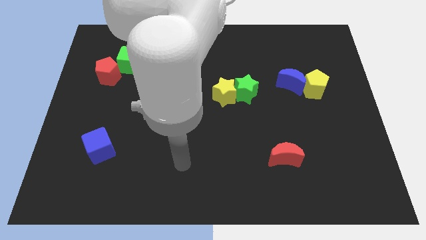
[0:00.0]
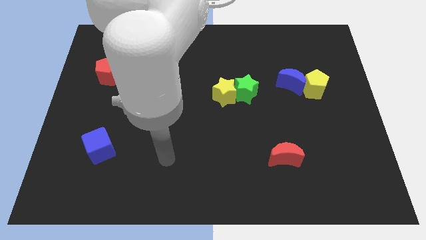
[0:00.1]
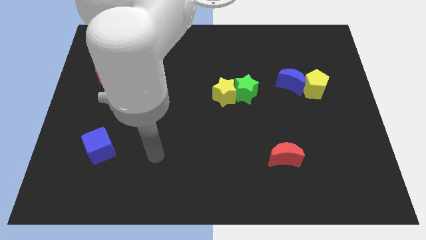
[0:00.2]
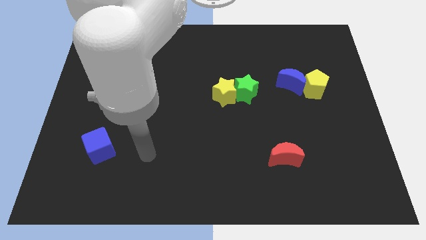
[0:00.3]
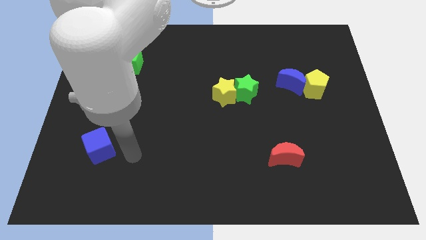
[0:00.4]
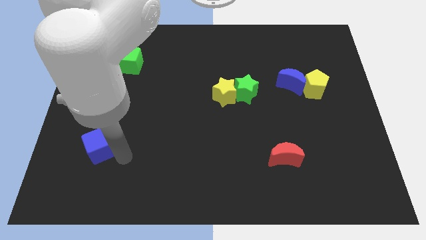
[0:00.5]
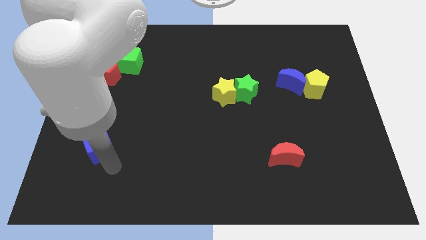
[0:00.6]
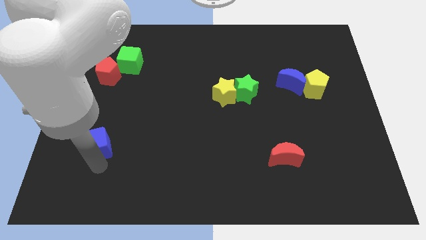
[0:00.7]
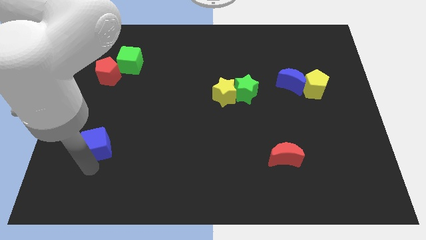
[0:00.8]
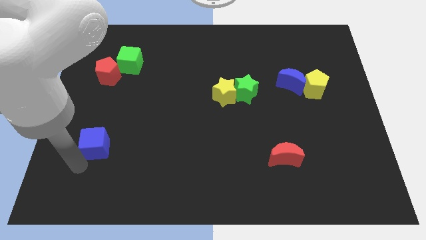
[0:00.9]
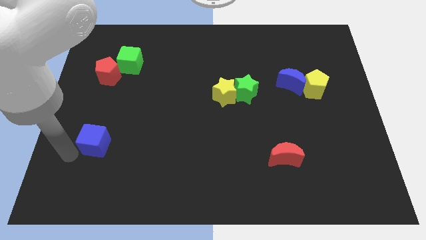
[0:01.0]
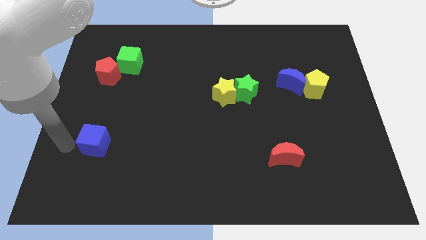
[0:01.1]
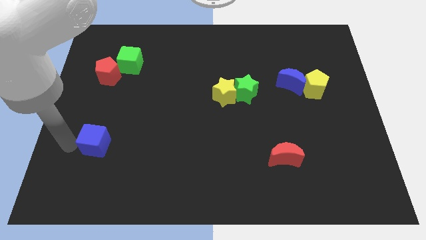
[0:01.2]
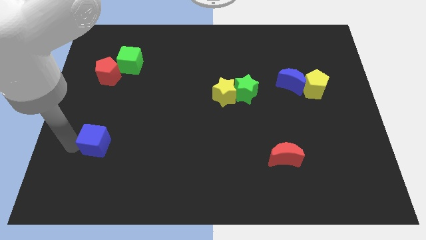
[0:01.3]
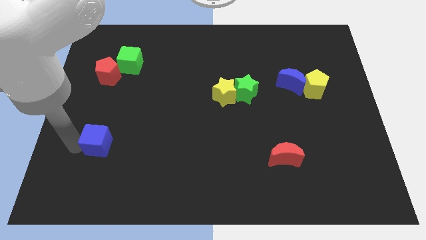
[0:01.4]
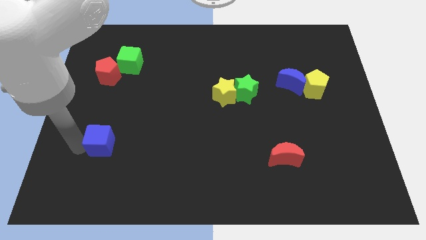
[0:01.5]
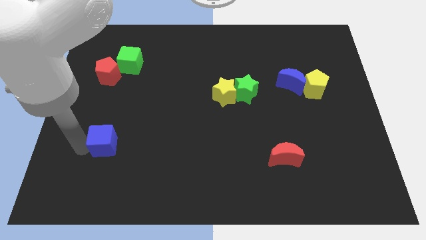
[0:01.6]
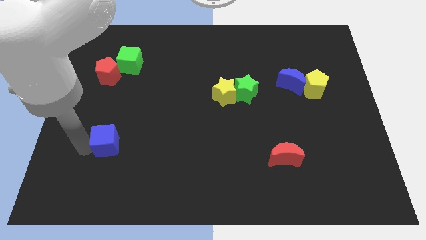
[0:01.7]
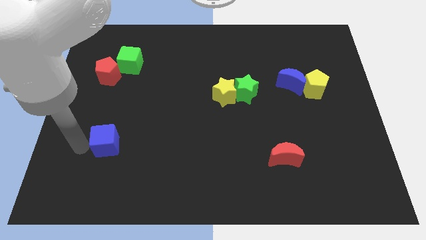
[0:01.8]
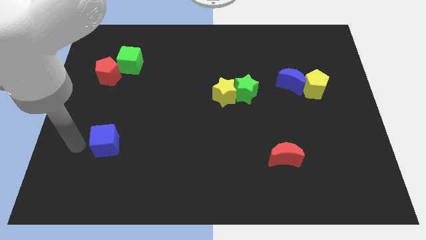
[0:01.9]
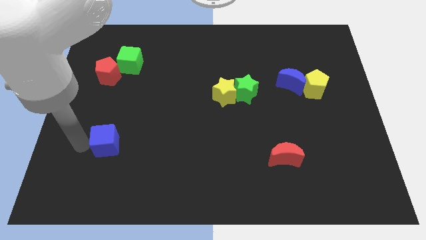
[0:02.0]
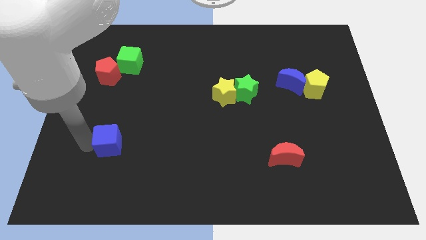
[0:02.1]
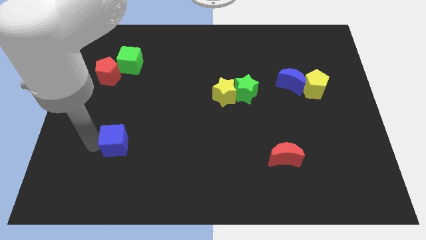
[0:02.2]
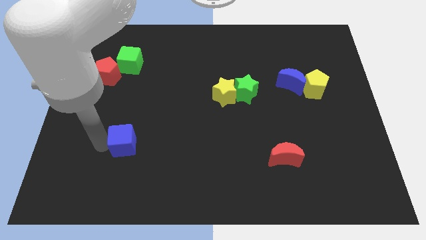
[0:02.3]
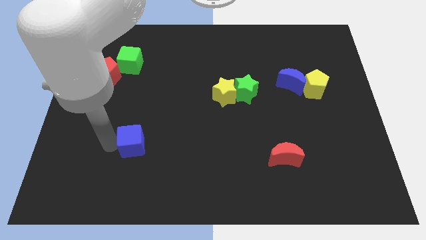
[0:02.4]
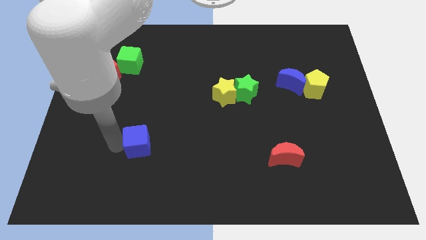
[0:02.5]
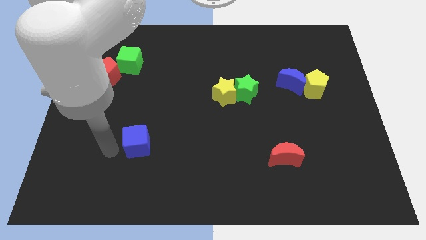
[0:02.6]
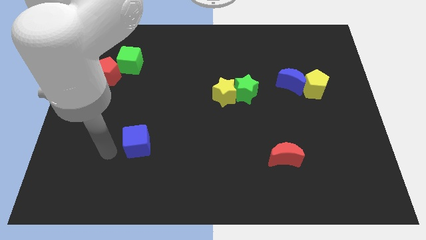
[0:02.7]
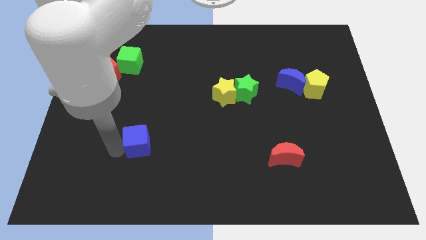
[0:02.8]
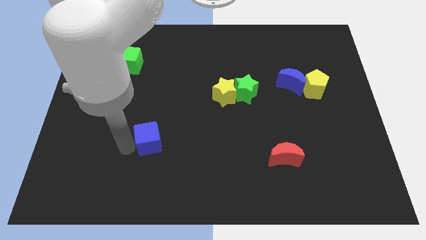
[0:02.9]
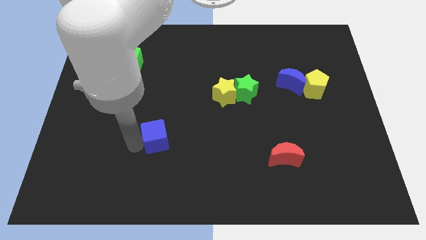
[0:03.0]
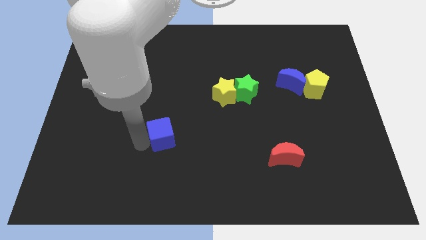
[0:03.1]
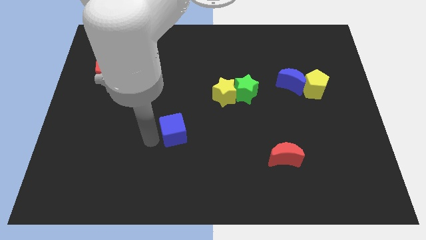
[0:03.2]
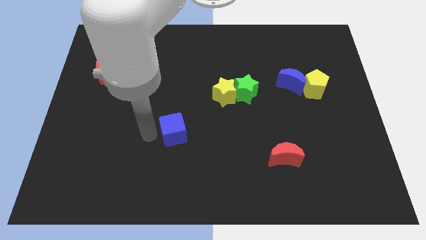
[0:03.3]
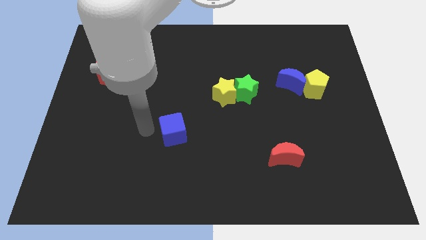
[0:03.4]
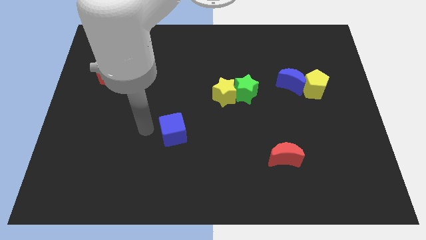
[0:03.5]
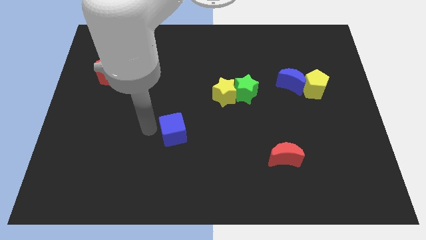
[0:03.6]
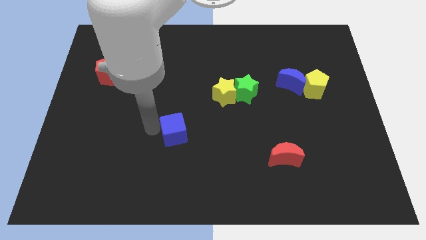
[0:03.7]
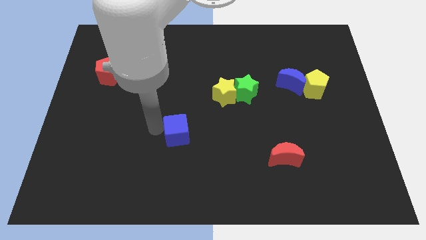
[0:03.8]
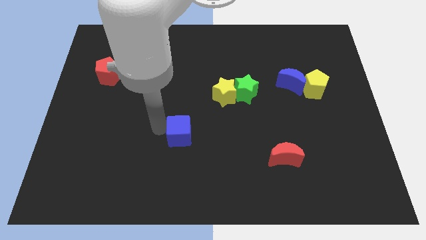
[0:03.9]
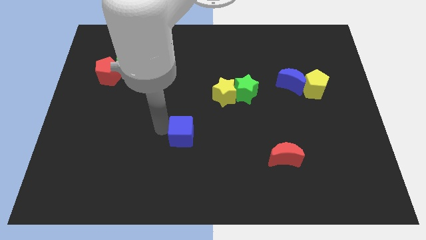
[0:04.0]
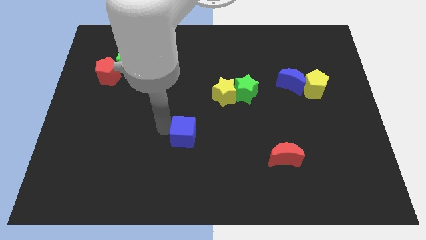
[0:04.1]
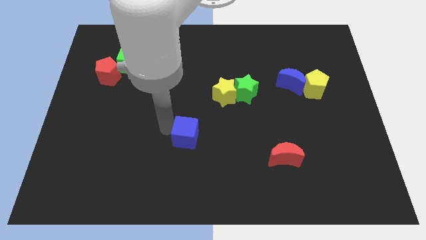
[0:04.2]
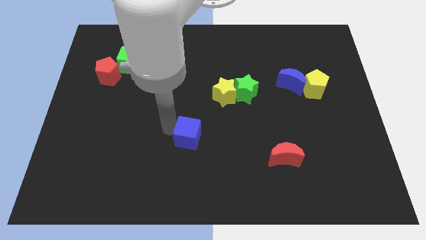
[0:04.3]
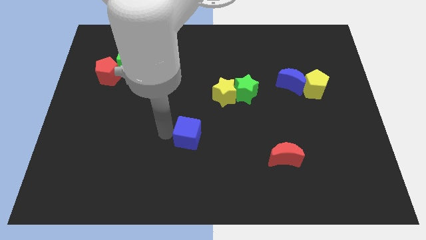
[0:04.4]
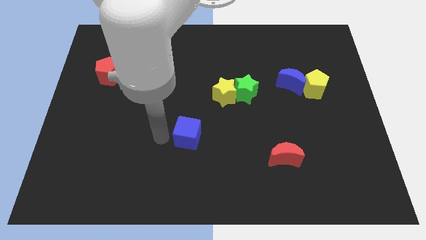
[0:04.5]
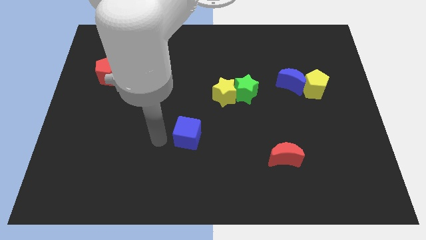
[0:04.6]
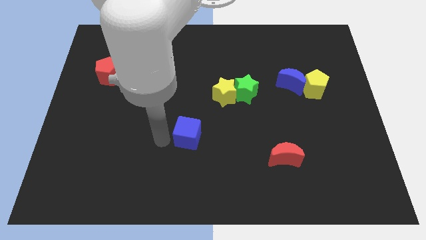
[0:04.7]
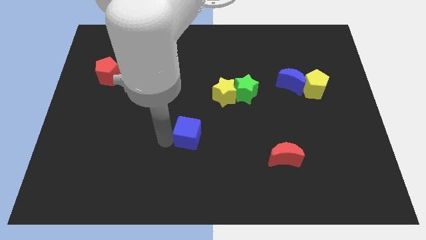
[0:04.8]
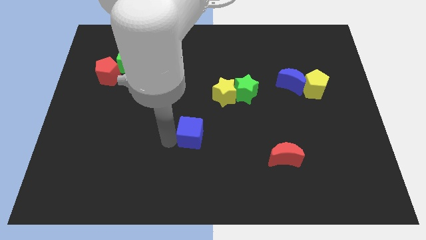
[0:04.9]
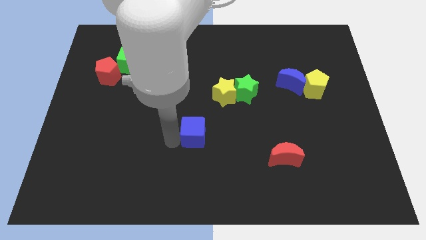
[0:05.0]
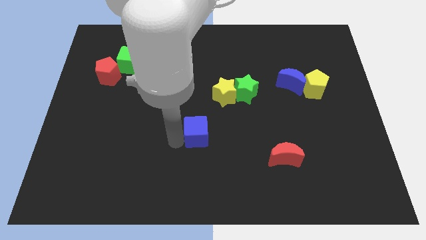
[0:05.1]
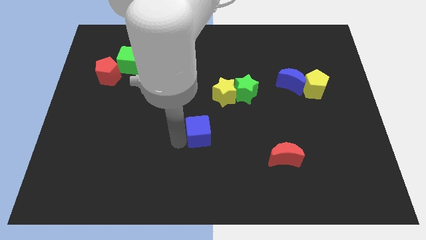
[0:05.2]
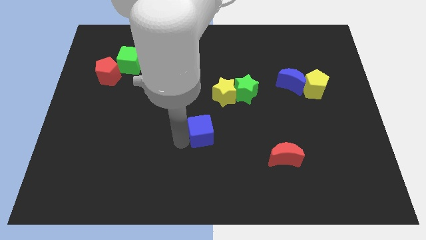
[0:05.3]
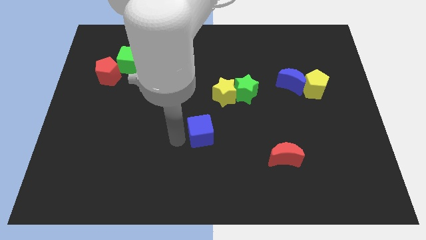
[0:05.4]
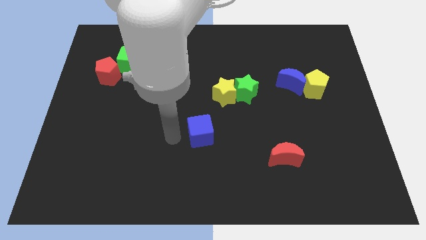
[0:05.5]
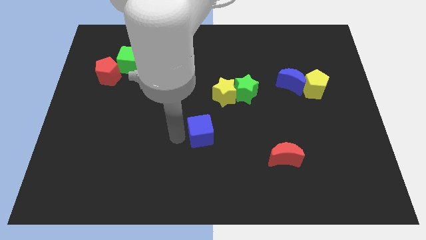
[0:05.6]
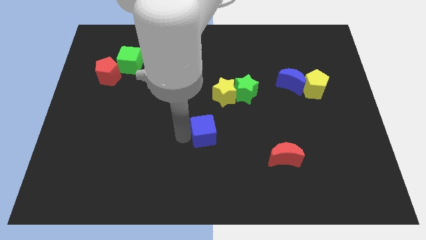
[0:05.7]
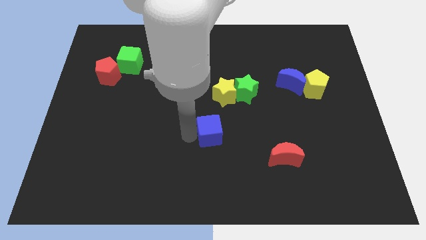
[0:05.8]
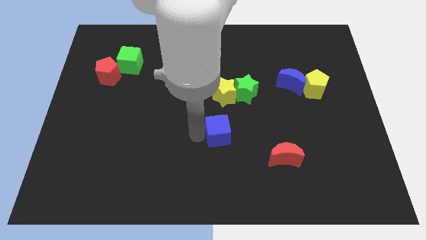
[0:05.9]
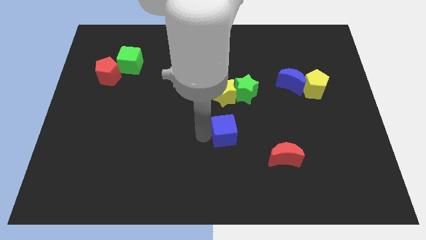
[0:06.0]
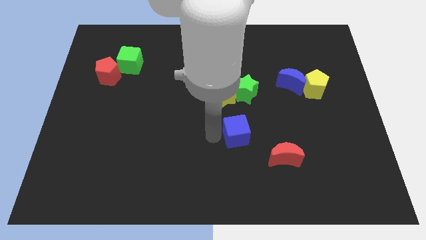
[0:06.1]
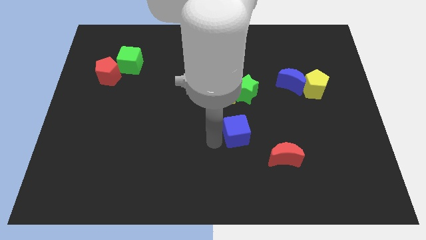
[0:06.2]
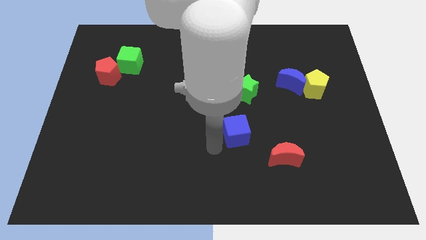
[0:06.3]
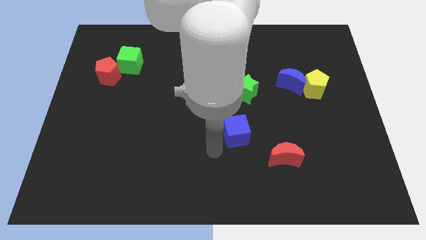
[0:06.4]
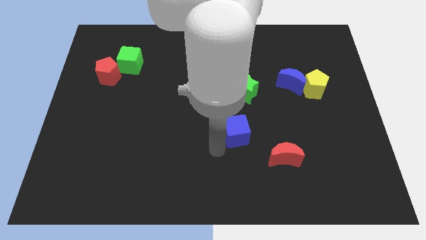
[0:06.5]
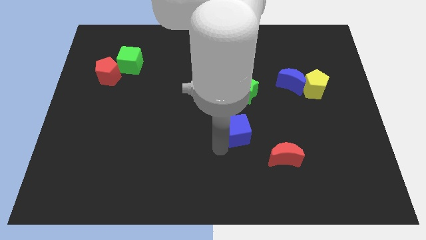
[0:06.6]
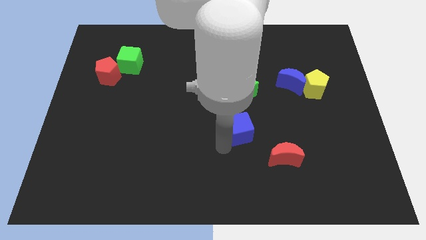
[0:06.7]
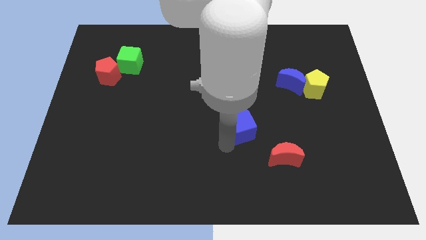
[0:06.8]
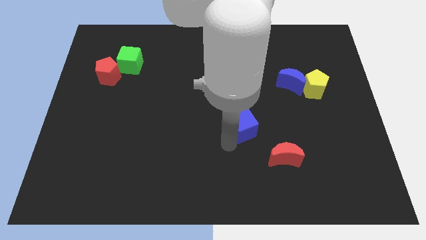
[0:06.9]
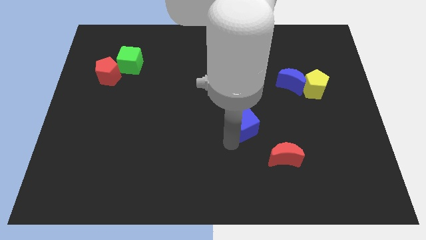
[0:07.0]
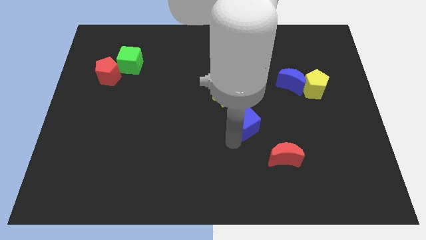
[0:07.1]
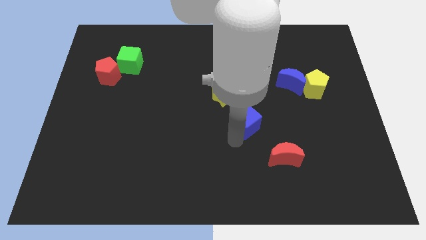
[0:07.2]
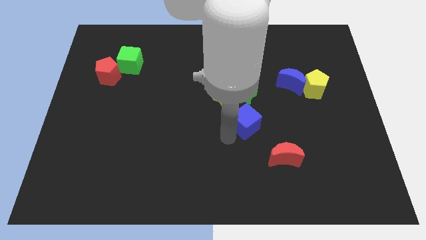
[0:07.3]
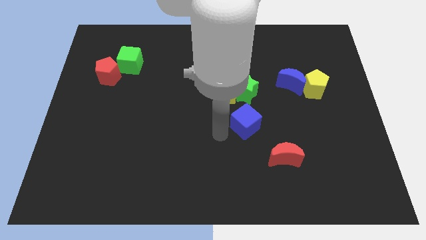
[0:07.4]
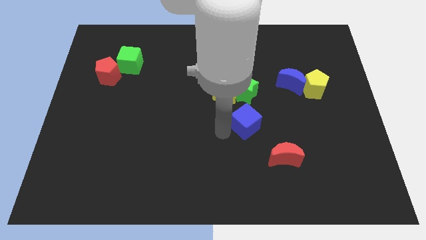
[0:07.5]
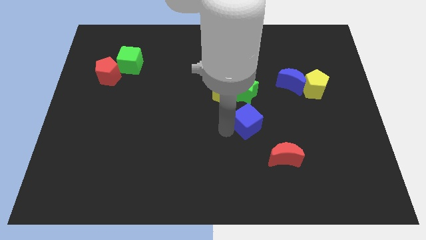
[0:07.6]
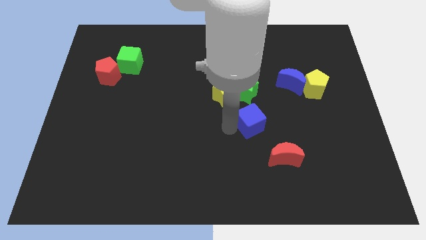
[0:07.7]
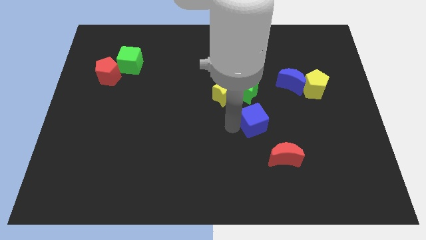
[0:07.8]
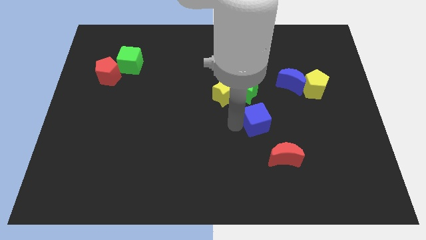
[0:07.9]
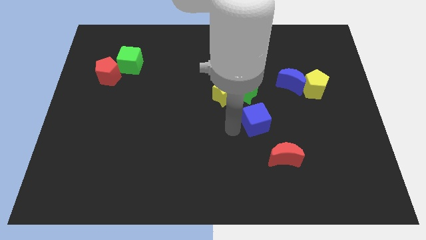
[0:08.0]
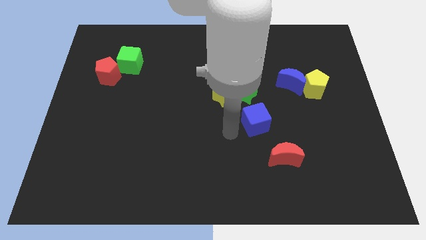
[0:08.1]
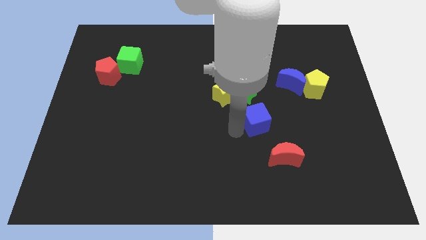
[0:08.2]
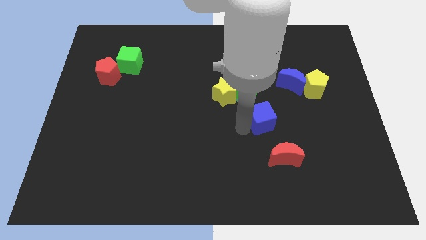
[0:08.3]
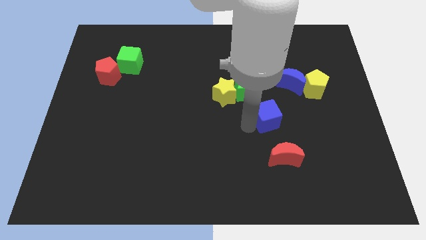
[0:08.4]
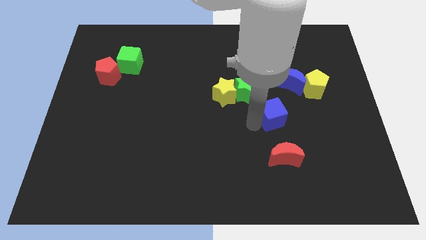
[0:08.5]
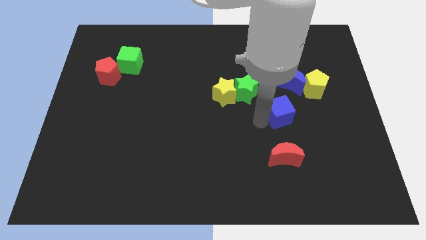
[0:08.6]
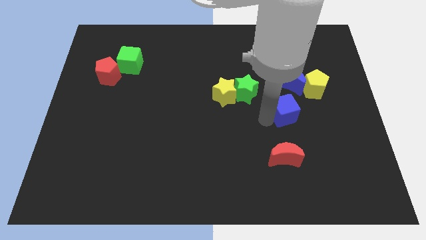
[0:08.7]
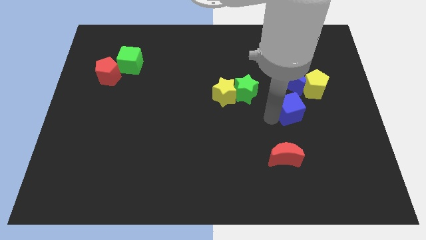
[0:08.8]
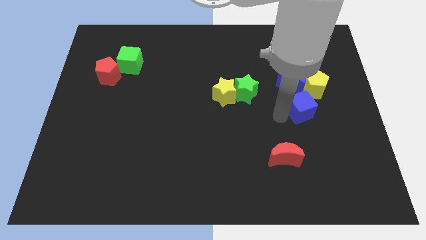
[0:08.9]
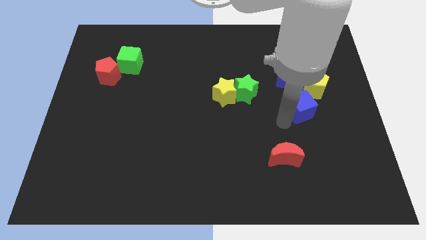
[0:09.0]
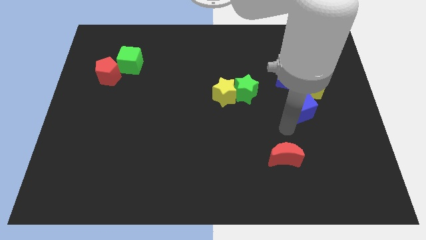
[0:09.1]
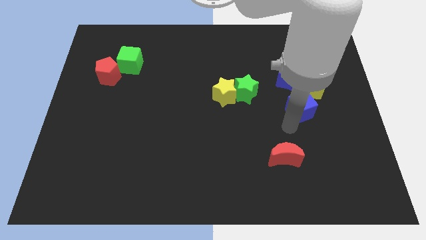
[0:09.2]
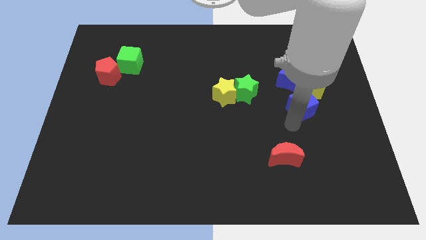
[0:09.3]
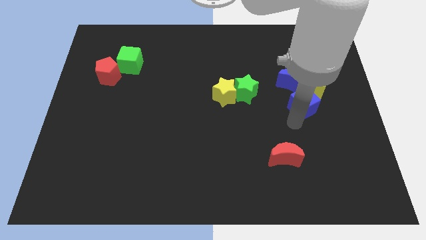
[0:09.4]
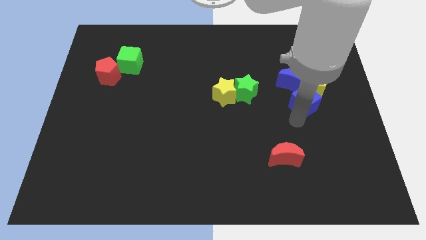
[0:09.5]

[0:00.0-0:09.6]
put the blue cube next to the yellow pentagon
